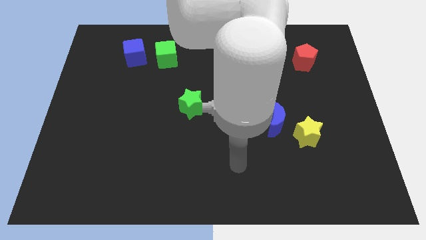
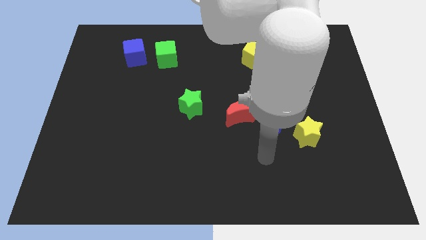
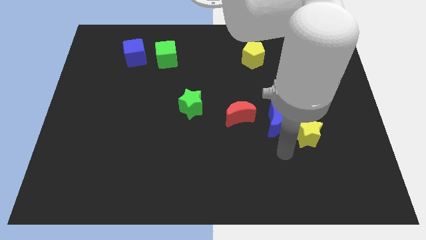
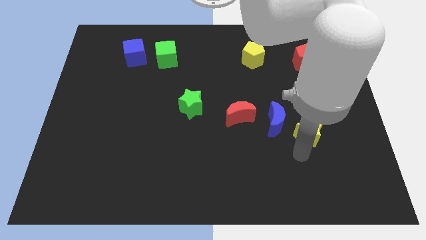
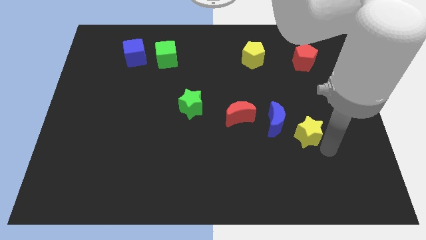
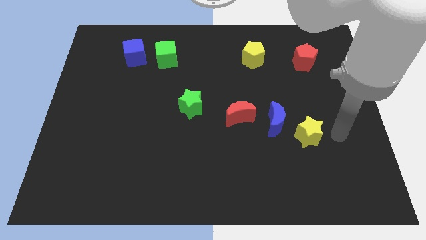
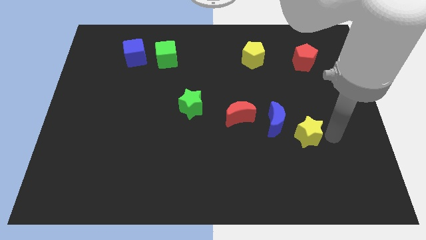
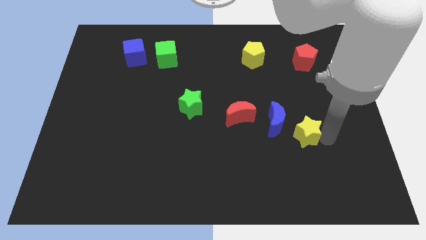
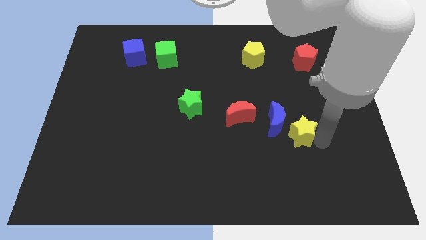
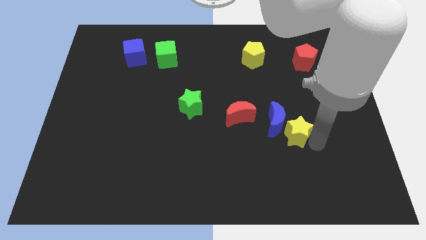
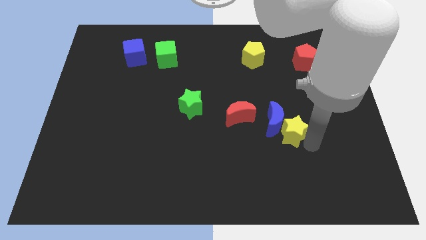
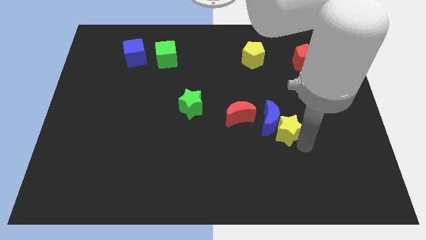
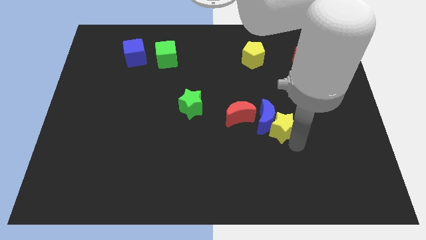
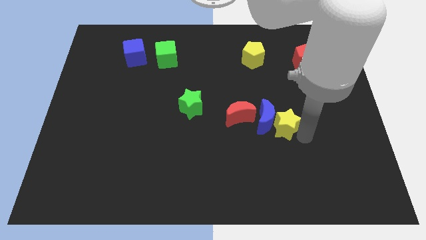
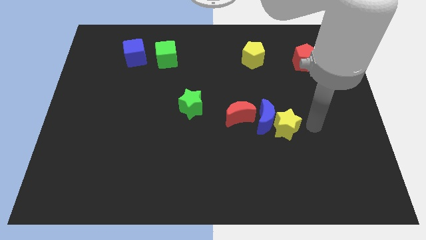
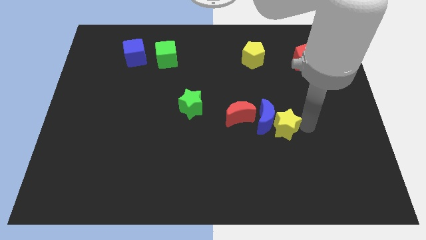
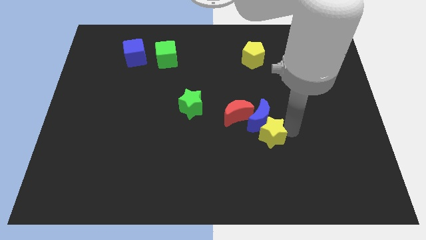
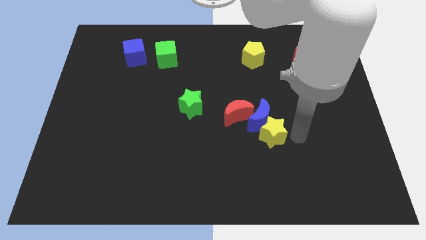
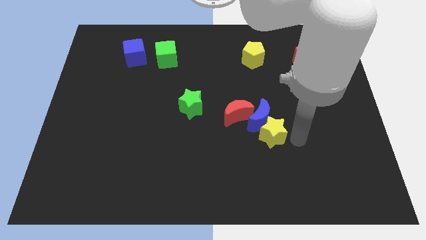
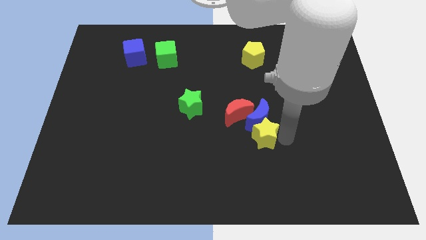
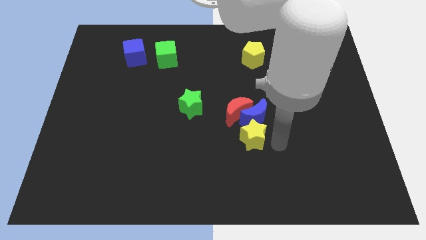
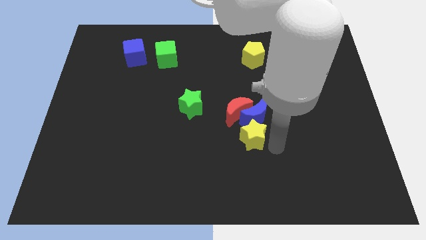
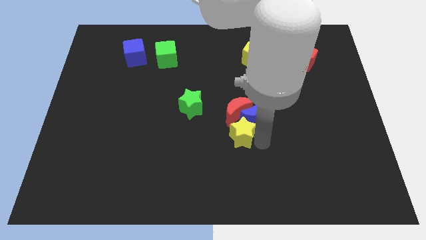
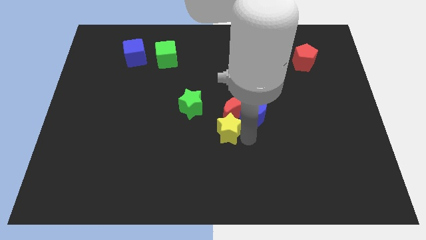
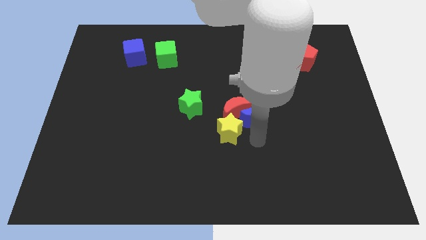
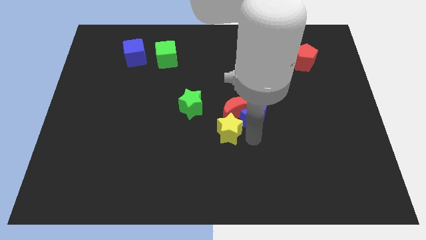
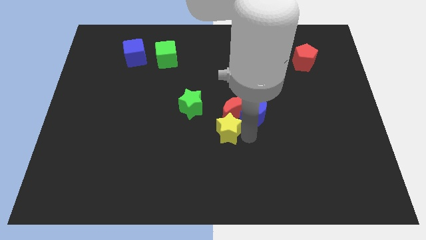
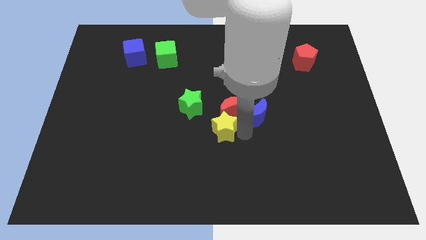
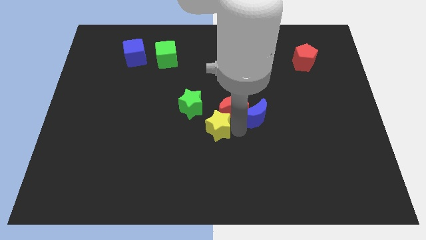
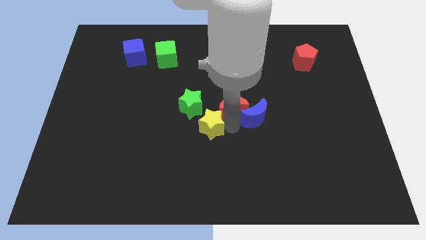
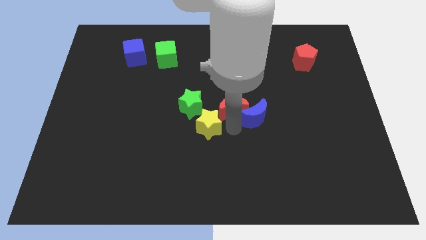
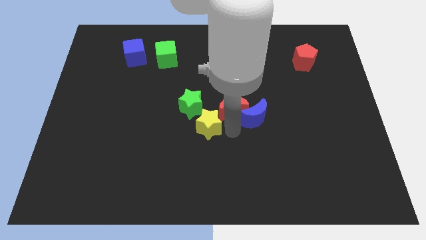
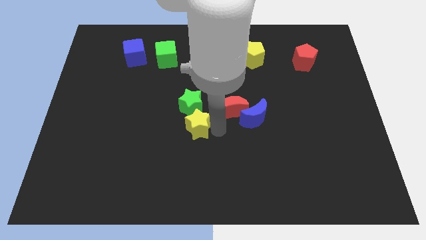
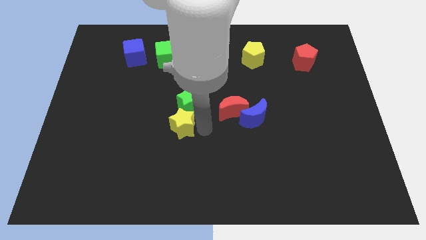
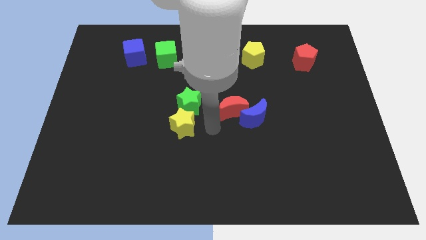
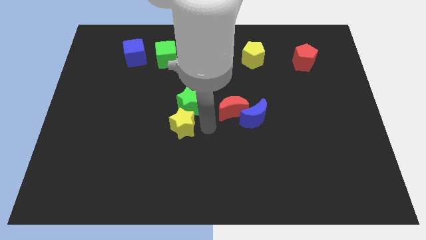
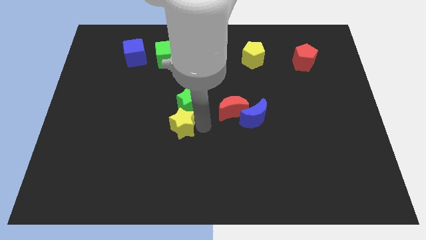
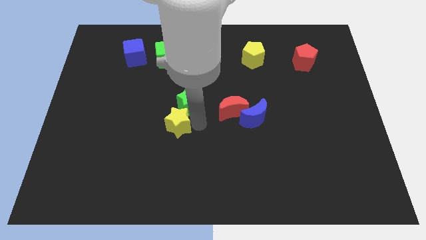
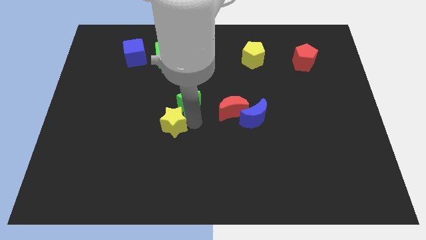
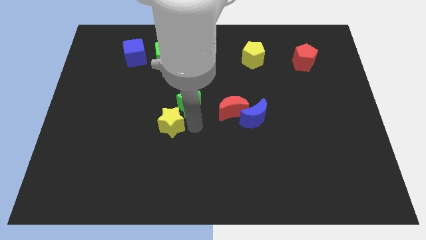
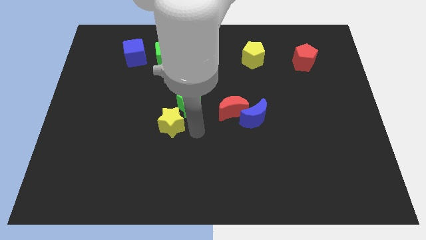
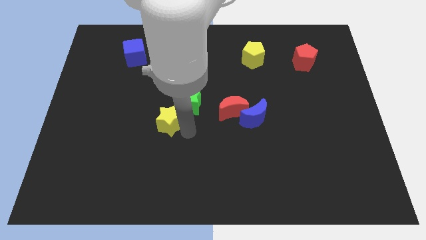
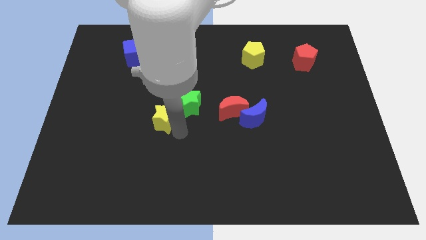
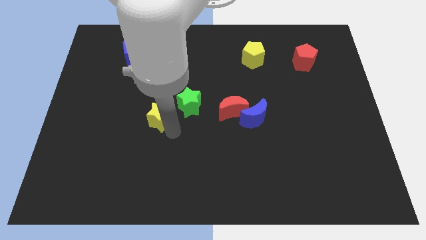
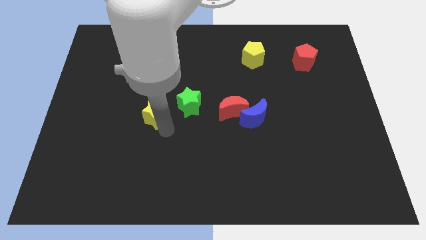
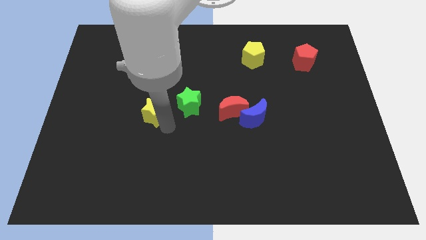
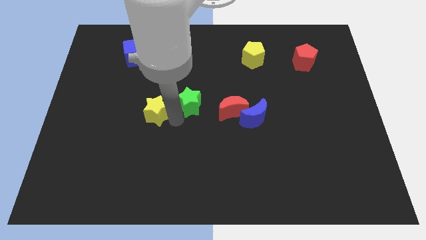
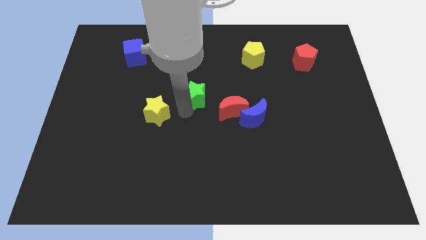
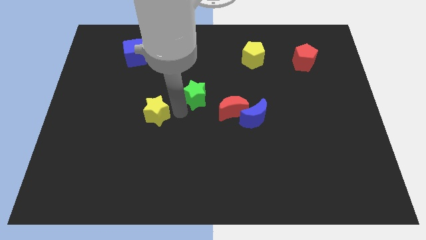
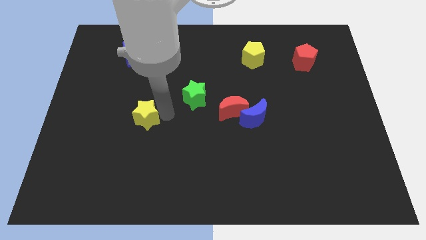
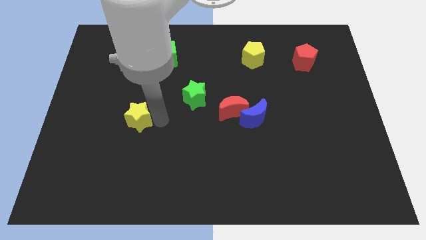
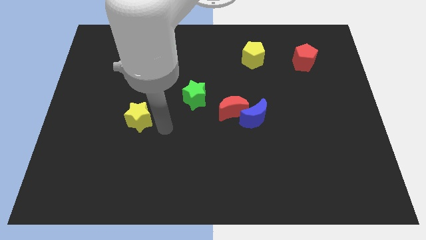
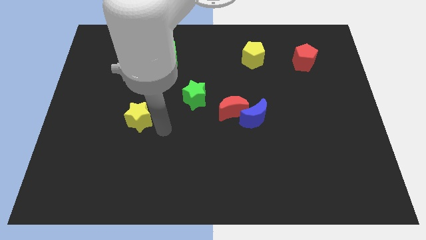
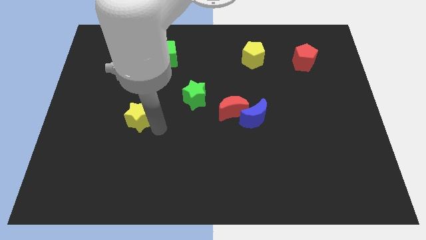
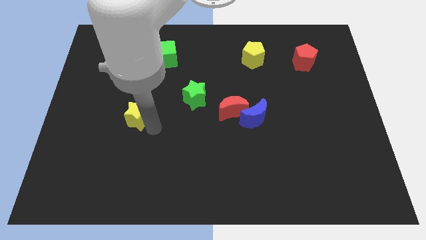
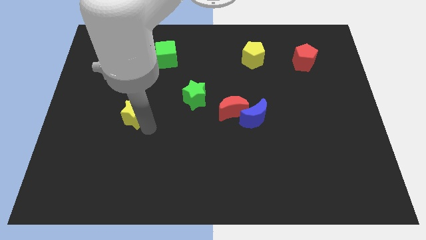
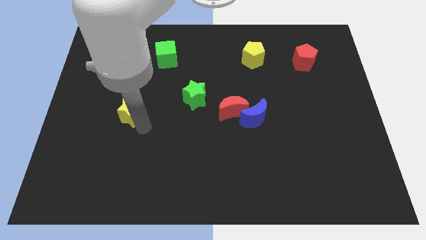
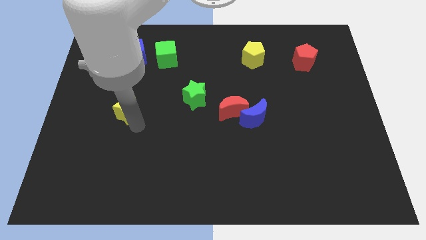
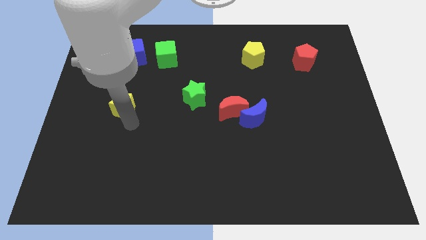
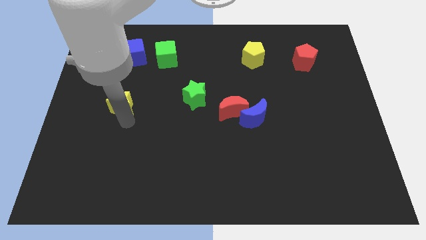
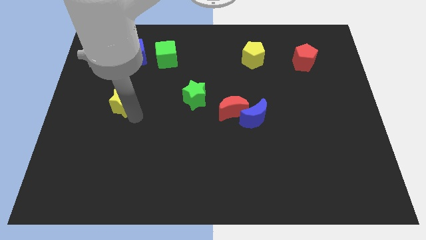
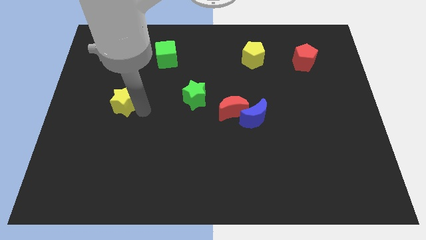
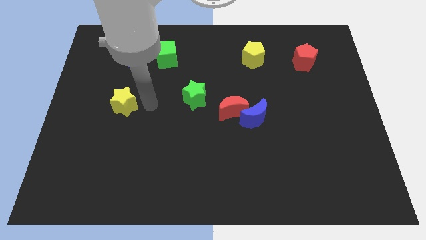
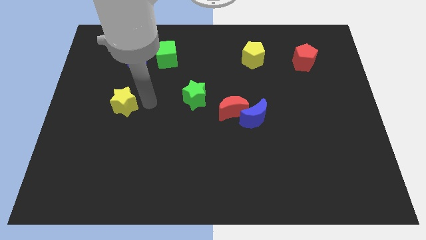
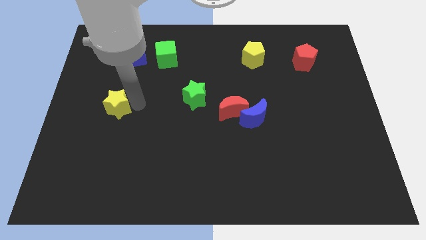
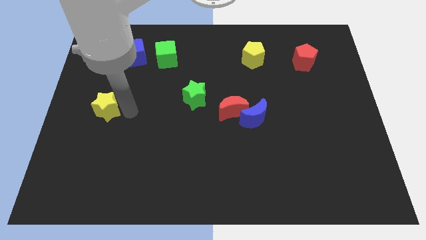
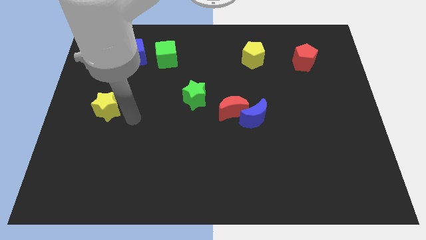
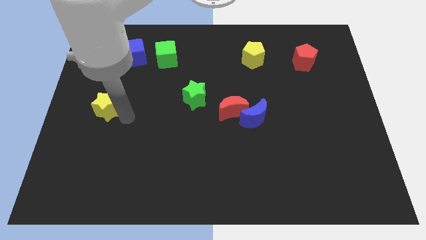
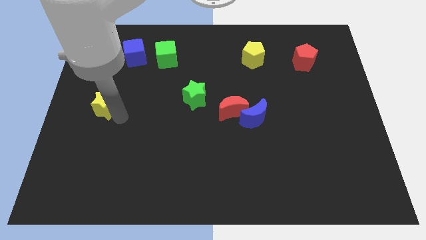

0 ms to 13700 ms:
put the yellow star to the left side of the board
